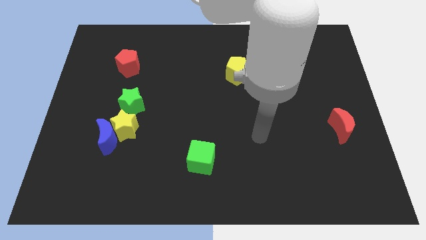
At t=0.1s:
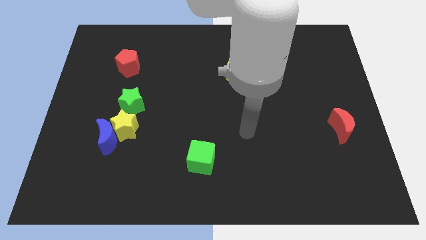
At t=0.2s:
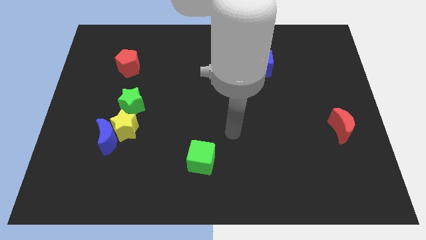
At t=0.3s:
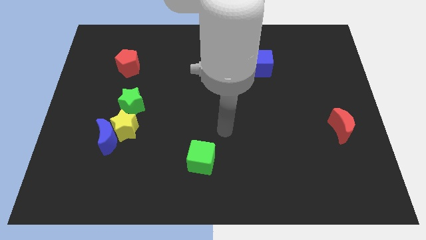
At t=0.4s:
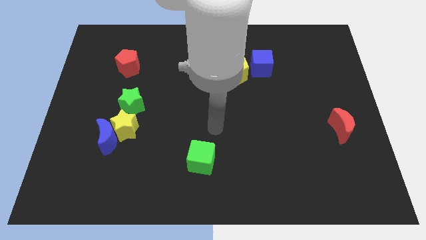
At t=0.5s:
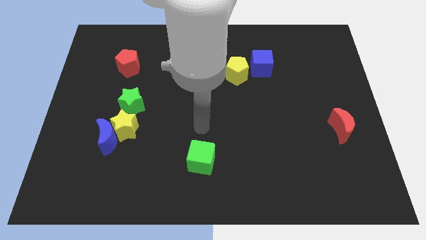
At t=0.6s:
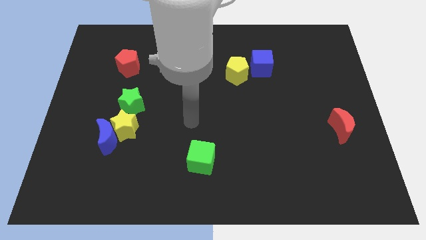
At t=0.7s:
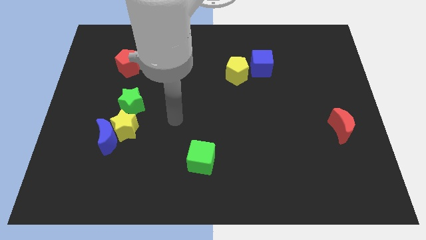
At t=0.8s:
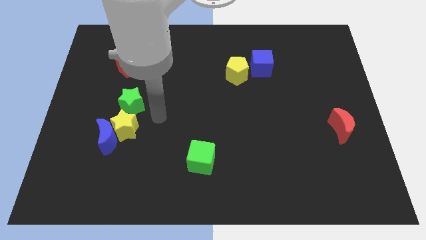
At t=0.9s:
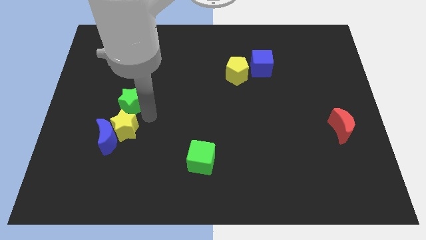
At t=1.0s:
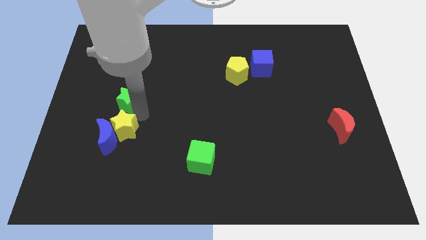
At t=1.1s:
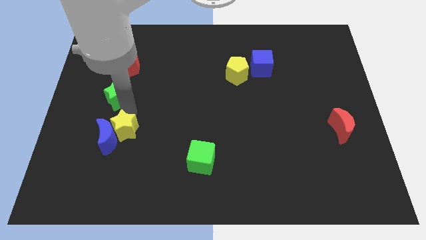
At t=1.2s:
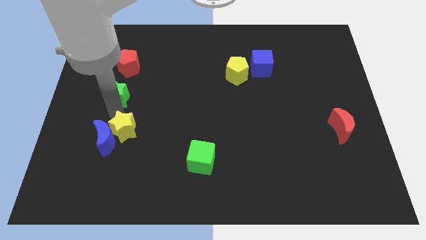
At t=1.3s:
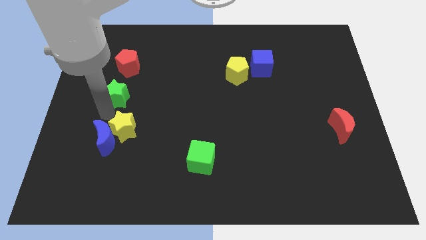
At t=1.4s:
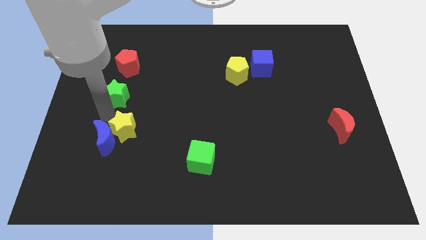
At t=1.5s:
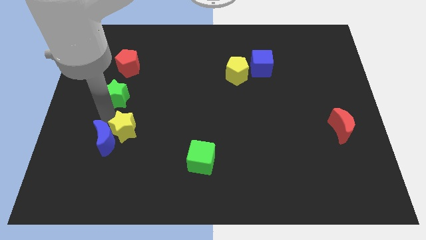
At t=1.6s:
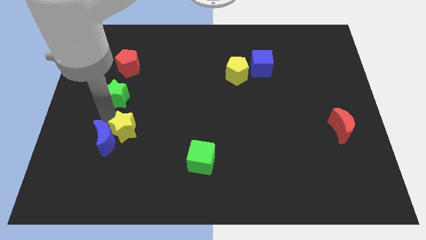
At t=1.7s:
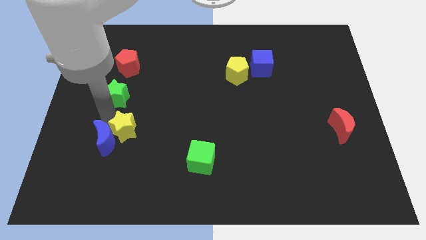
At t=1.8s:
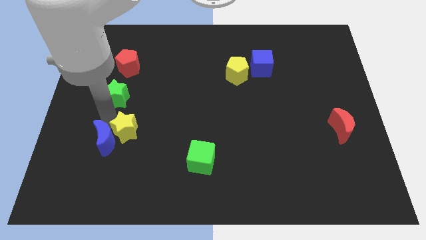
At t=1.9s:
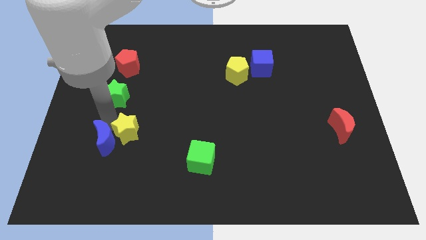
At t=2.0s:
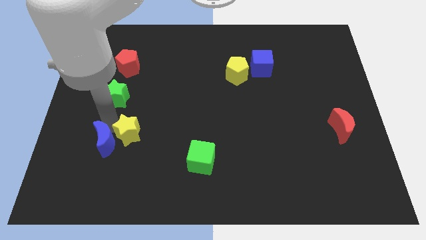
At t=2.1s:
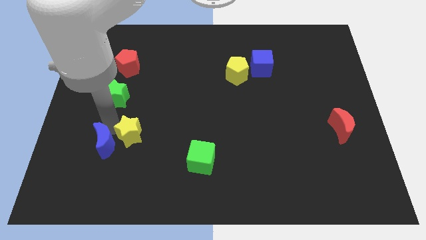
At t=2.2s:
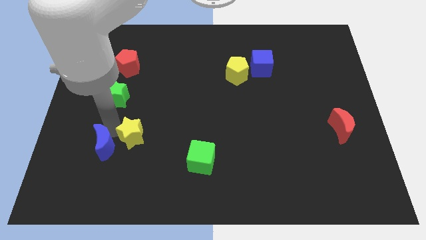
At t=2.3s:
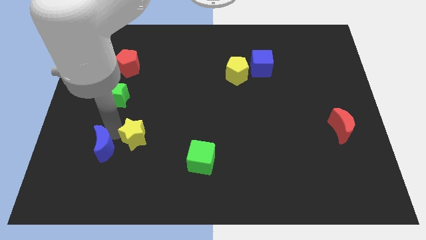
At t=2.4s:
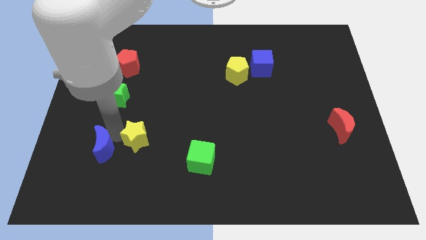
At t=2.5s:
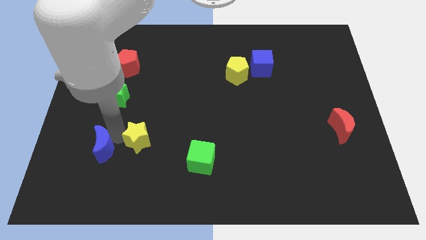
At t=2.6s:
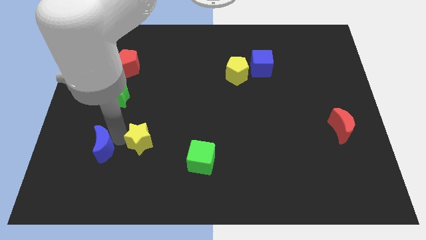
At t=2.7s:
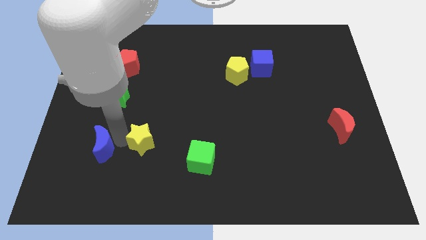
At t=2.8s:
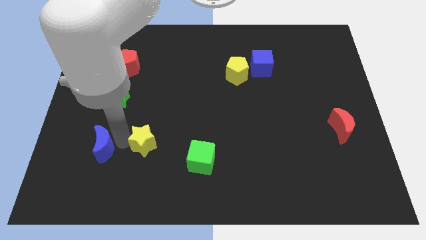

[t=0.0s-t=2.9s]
separate the yellow star from the blue moon and green star

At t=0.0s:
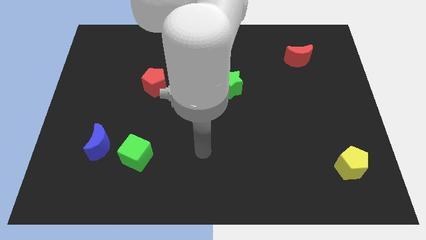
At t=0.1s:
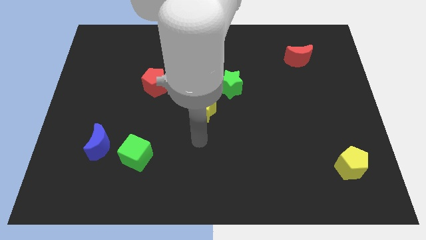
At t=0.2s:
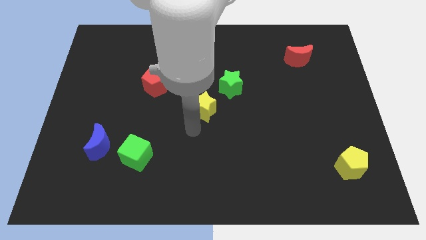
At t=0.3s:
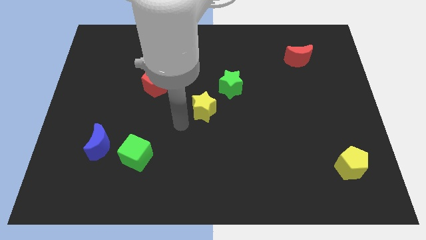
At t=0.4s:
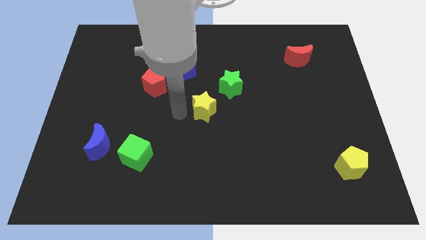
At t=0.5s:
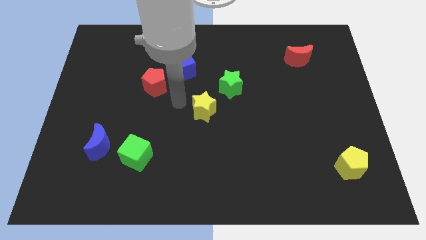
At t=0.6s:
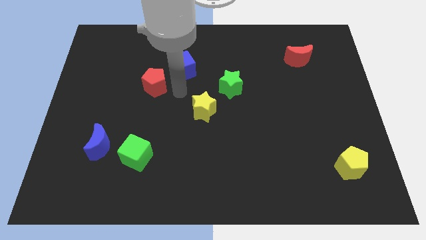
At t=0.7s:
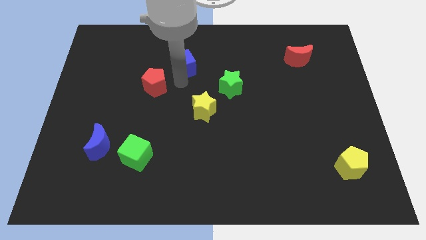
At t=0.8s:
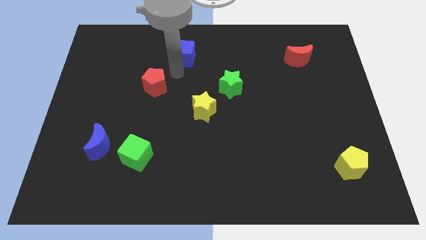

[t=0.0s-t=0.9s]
move the red pentagon away from the blue cube

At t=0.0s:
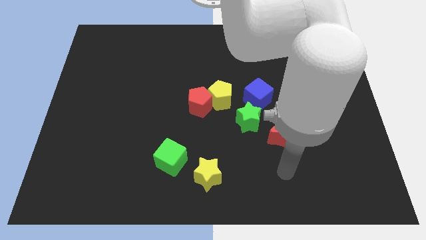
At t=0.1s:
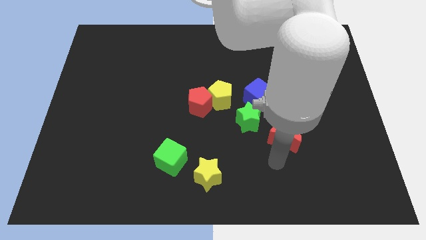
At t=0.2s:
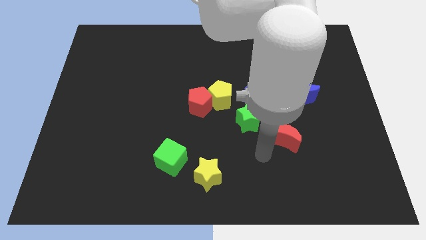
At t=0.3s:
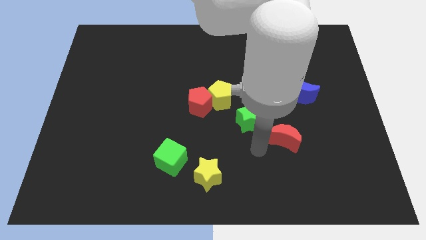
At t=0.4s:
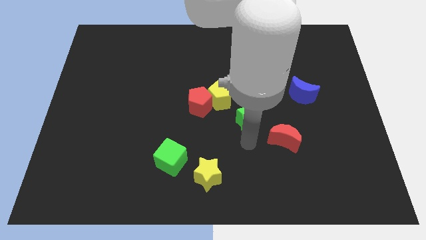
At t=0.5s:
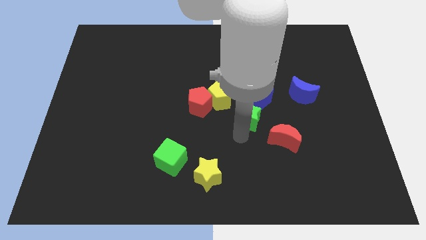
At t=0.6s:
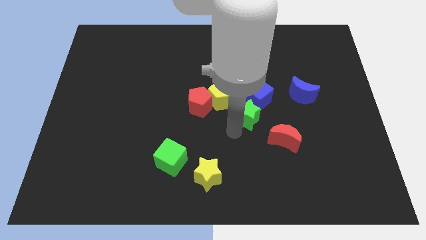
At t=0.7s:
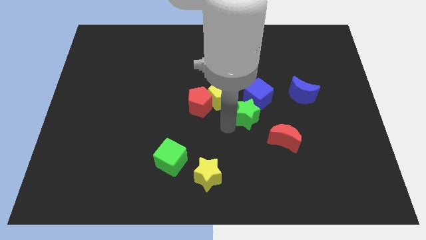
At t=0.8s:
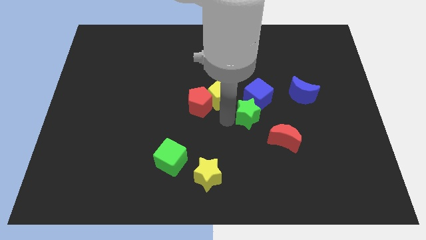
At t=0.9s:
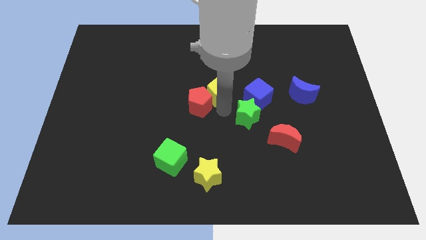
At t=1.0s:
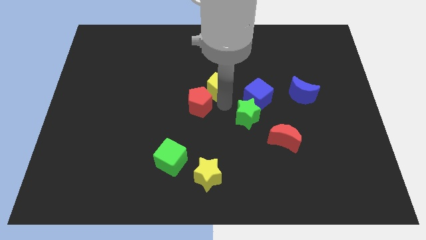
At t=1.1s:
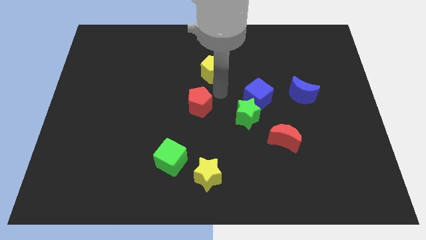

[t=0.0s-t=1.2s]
pull the red pentagon apart from the yellow pentagon

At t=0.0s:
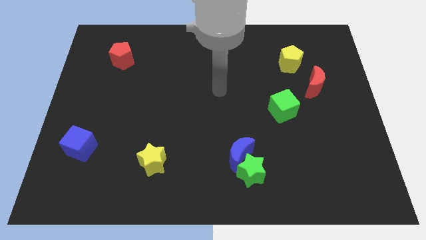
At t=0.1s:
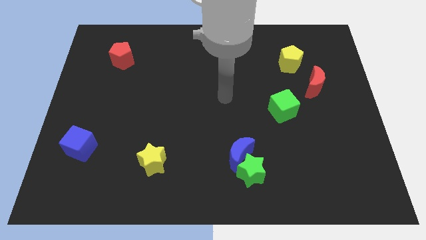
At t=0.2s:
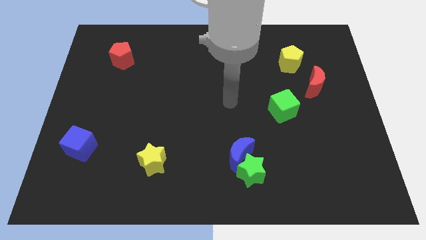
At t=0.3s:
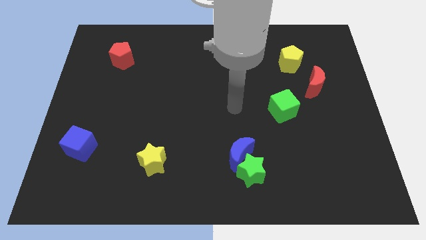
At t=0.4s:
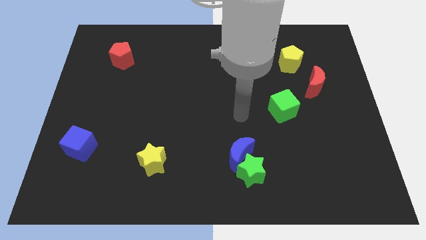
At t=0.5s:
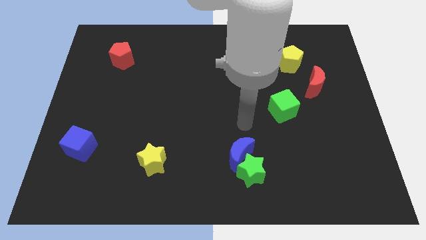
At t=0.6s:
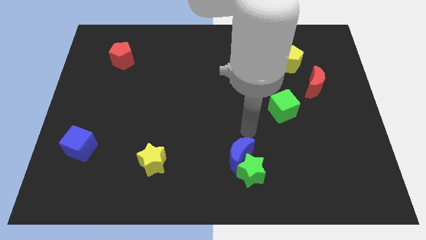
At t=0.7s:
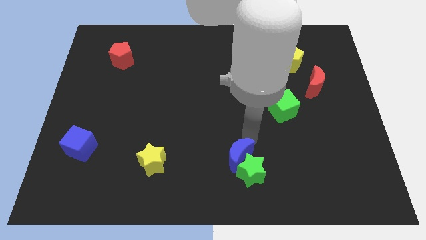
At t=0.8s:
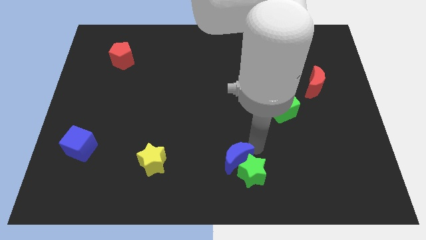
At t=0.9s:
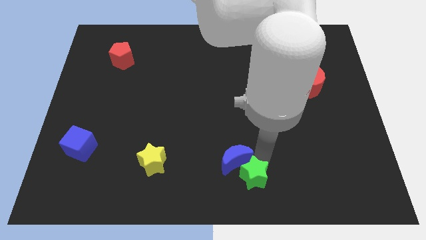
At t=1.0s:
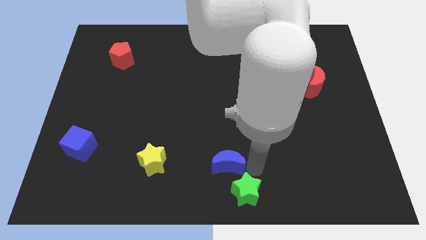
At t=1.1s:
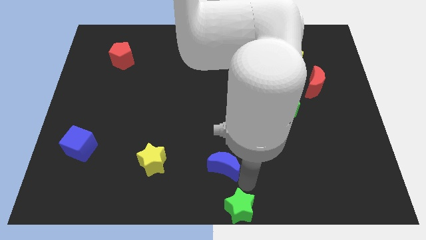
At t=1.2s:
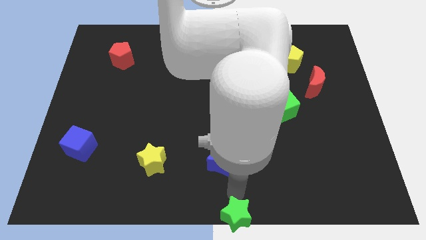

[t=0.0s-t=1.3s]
pull the blue moon apart from the green star

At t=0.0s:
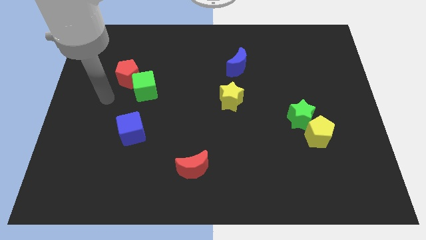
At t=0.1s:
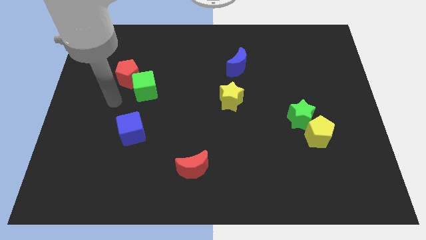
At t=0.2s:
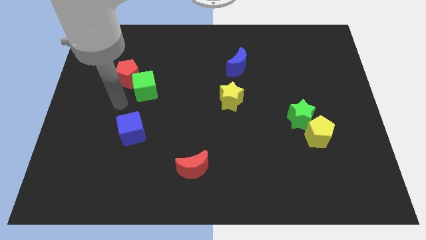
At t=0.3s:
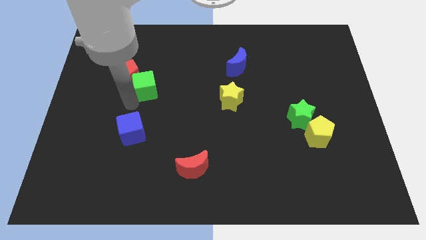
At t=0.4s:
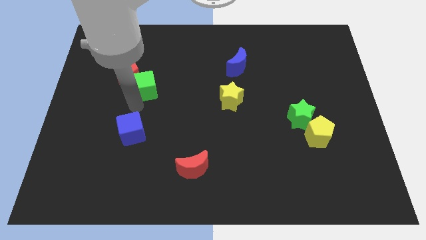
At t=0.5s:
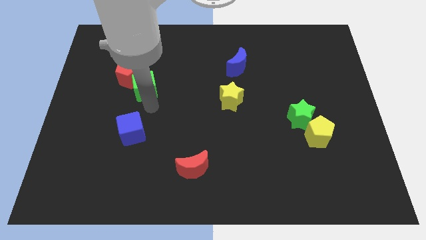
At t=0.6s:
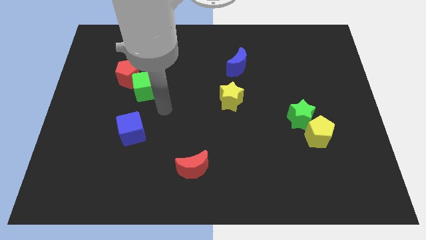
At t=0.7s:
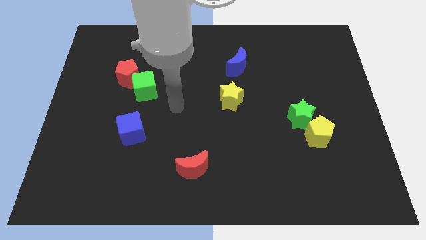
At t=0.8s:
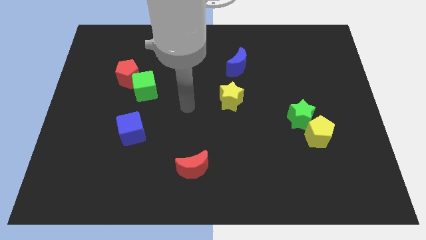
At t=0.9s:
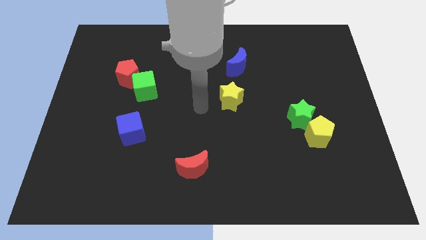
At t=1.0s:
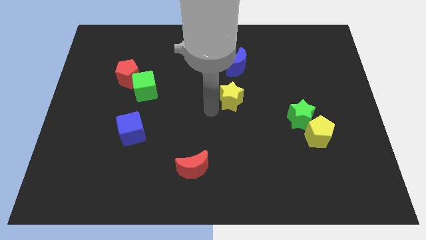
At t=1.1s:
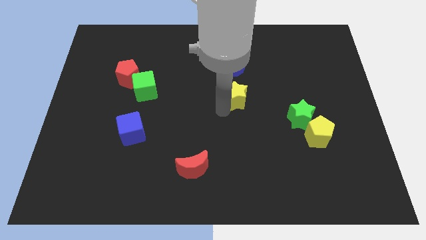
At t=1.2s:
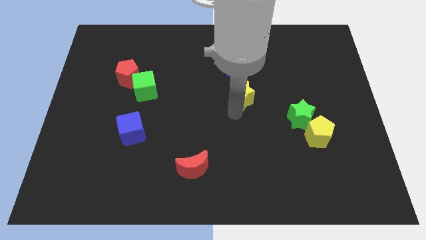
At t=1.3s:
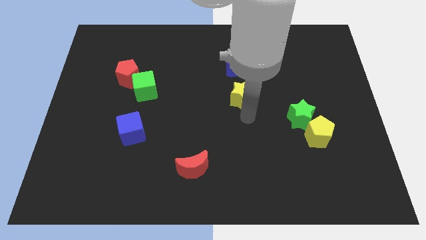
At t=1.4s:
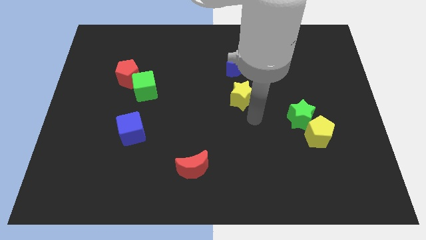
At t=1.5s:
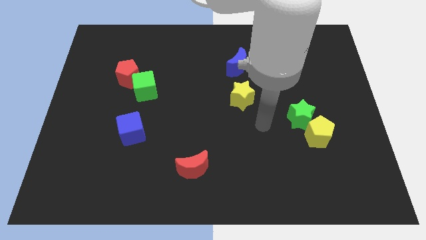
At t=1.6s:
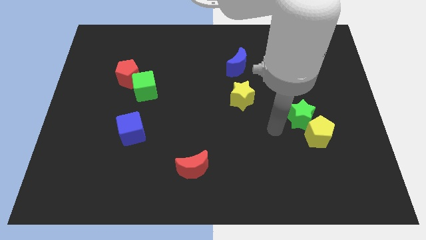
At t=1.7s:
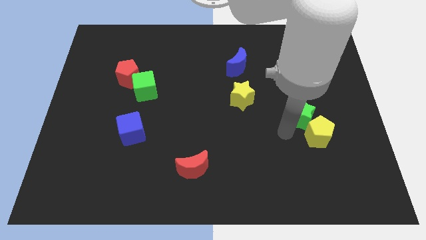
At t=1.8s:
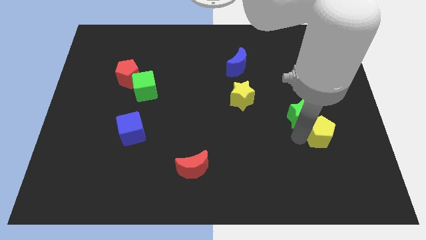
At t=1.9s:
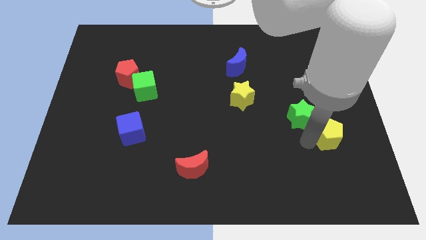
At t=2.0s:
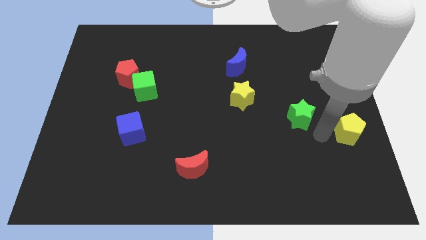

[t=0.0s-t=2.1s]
separate the green star from the yellow pentagon

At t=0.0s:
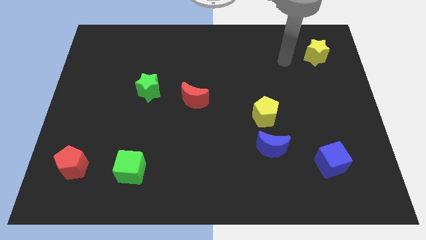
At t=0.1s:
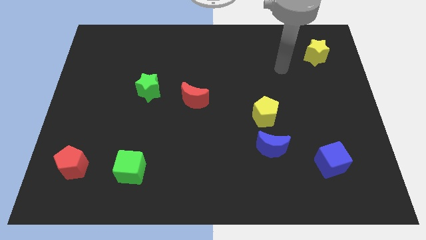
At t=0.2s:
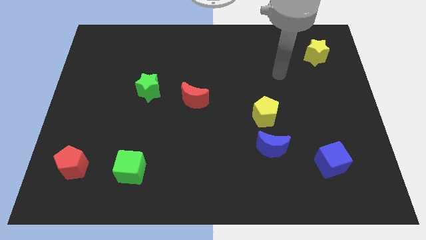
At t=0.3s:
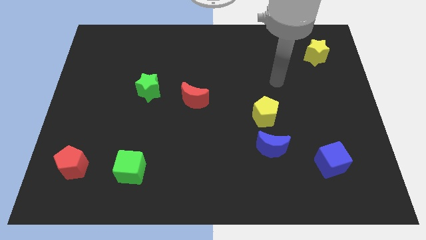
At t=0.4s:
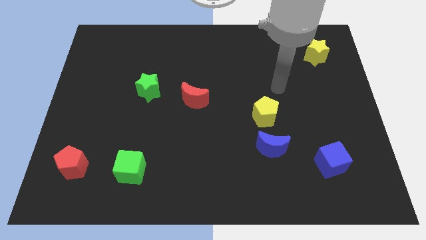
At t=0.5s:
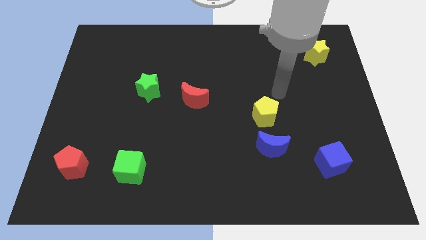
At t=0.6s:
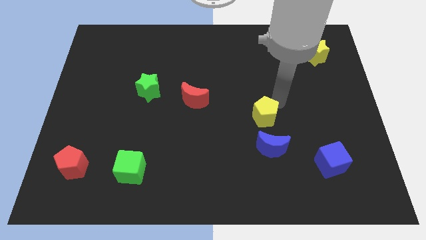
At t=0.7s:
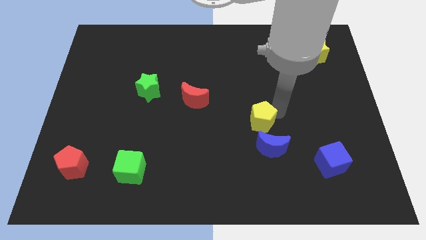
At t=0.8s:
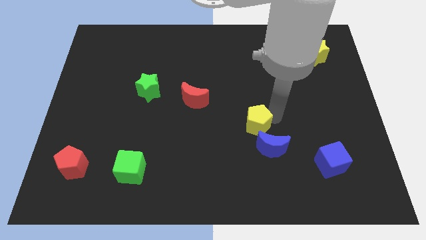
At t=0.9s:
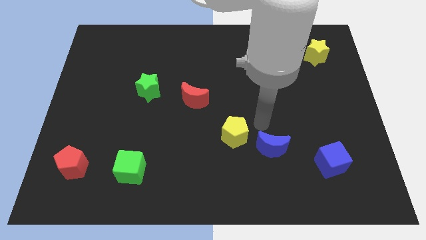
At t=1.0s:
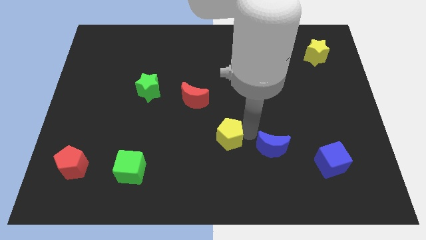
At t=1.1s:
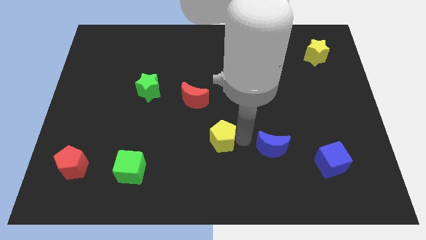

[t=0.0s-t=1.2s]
separate the blue moon from the yellow pentagon
